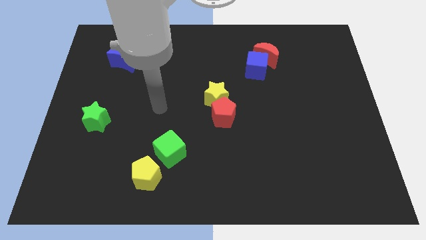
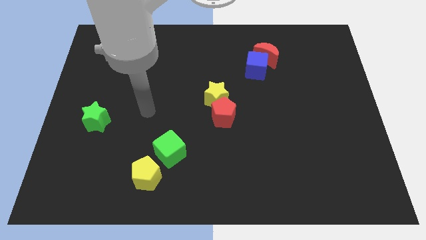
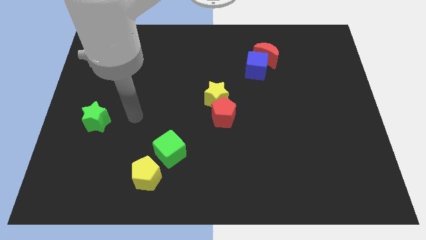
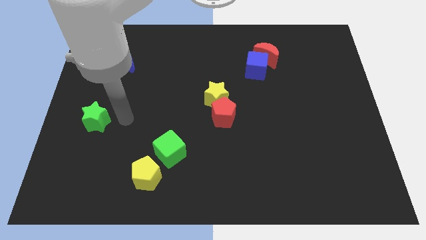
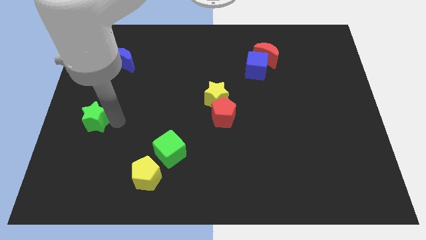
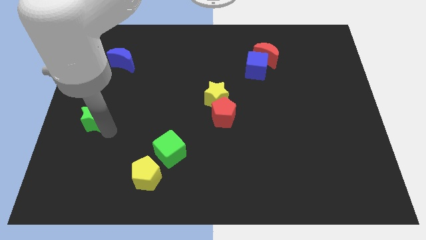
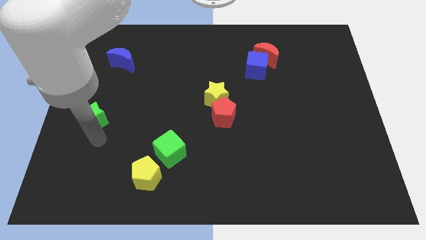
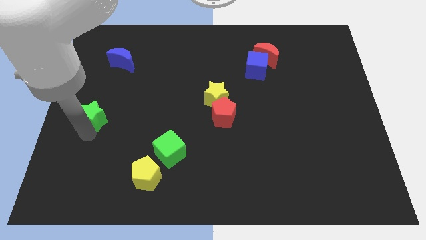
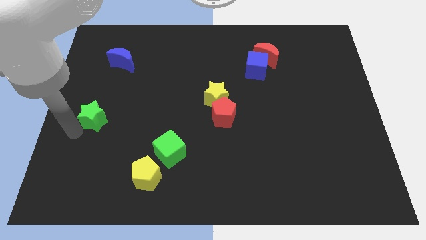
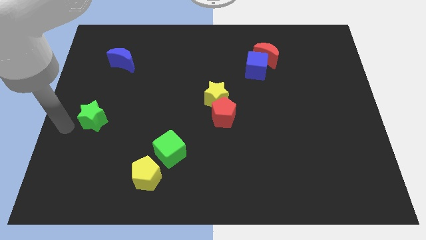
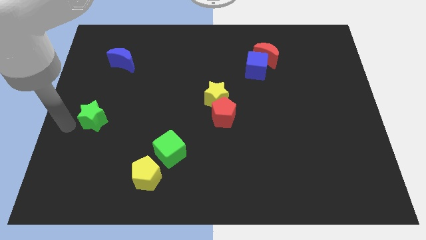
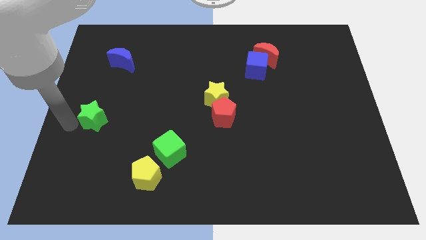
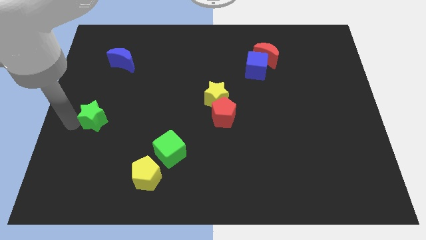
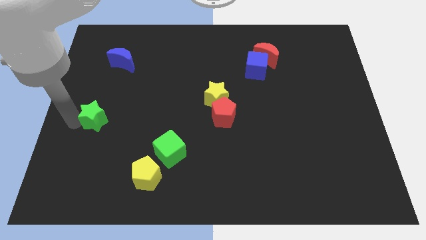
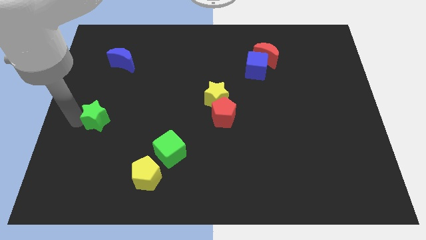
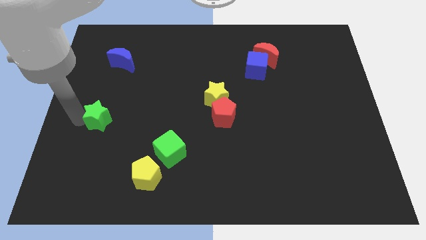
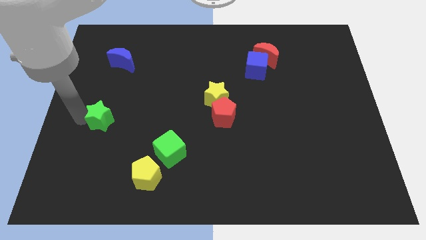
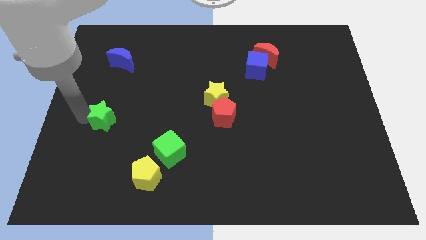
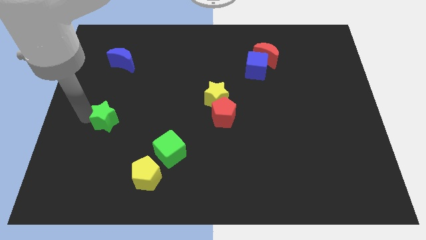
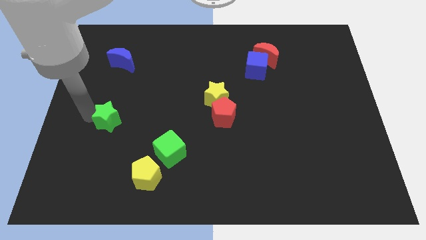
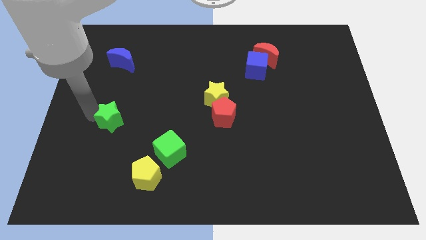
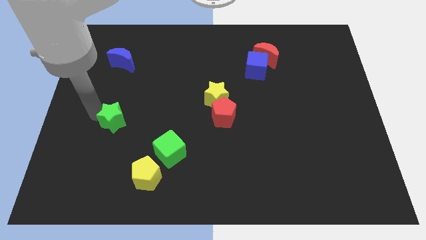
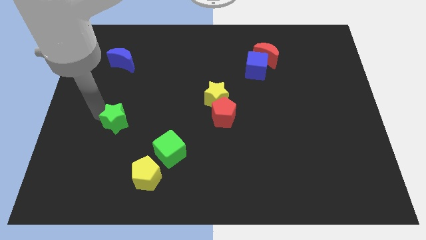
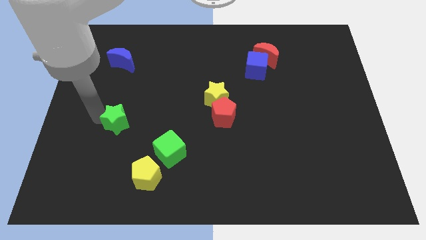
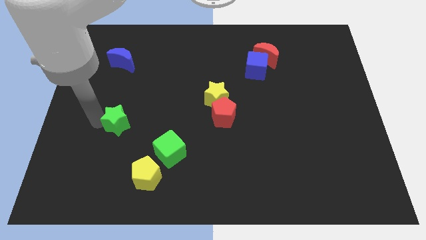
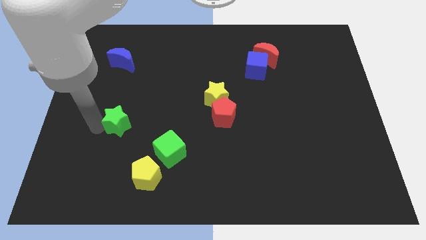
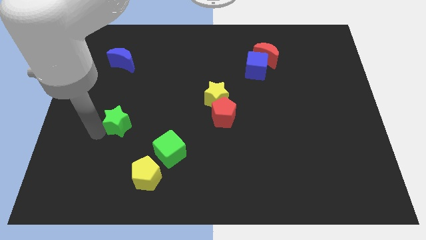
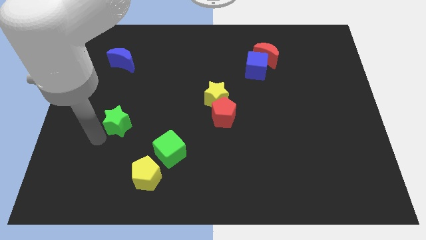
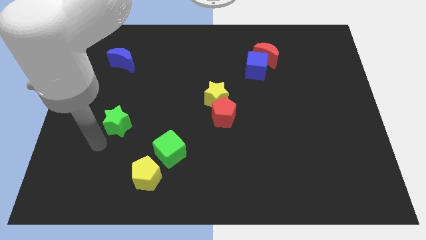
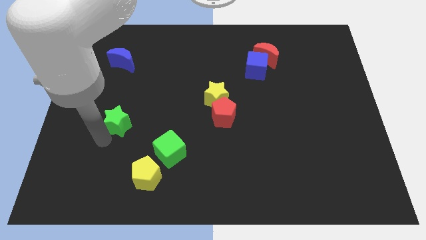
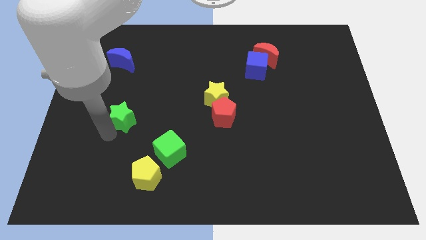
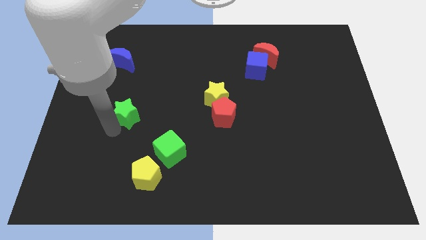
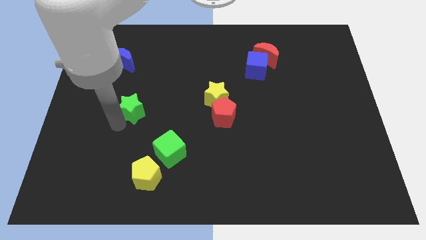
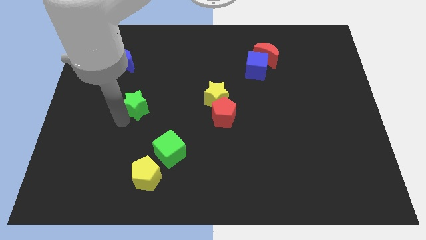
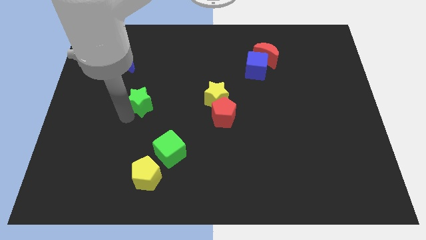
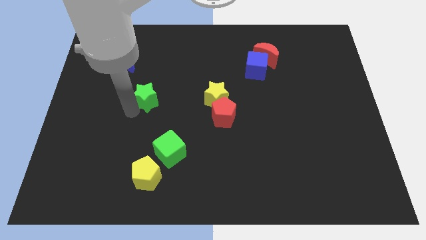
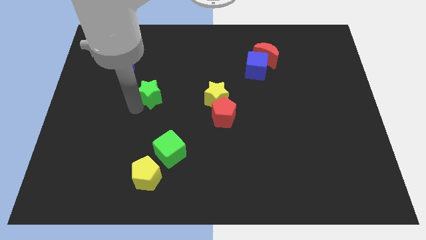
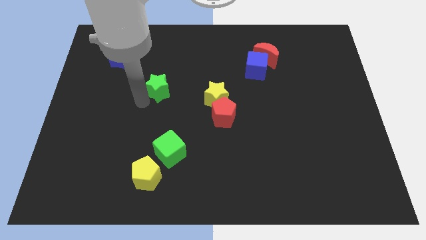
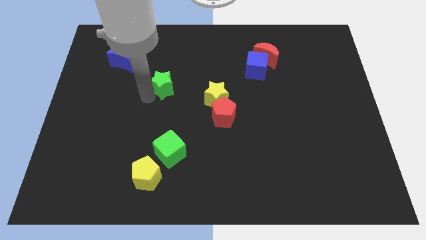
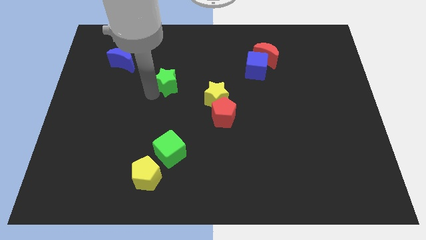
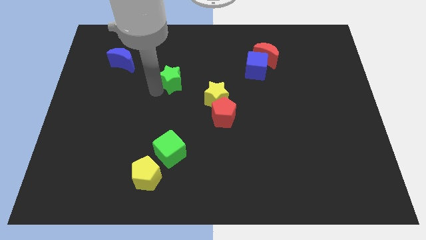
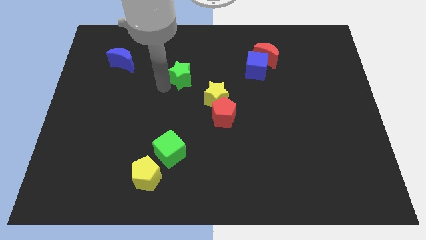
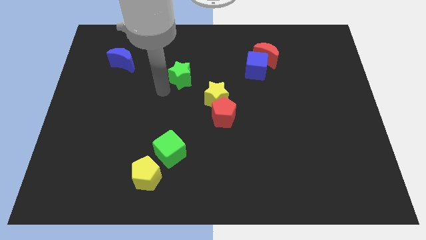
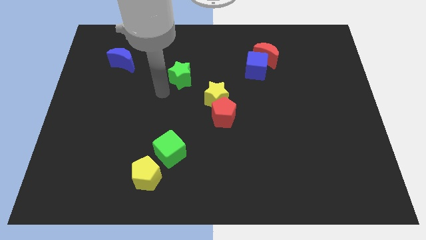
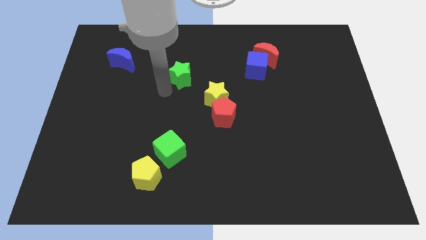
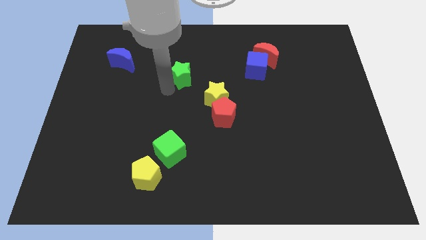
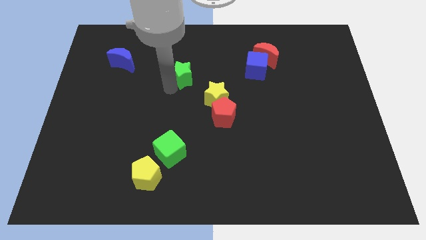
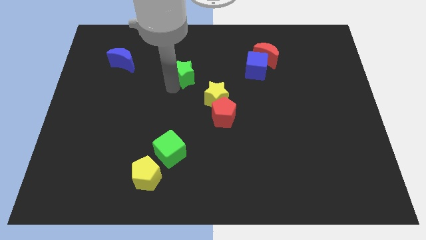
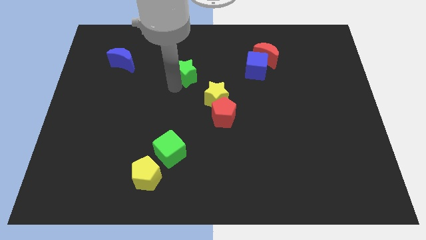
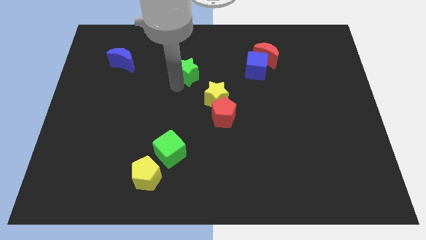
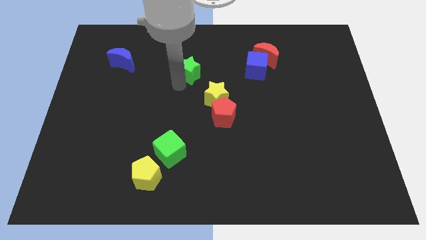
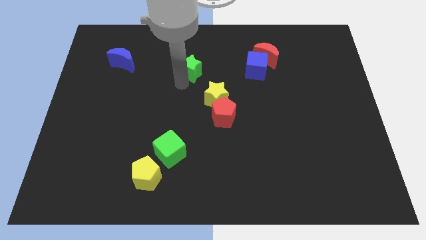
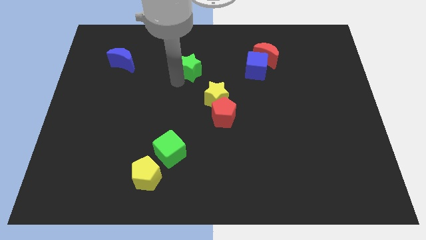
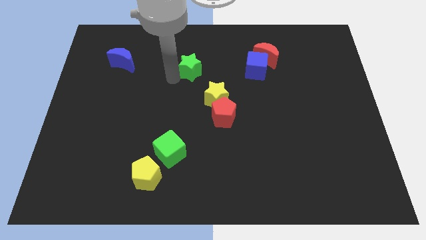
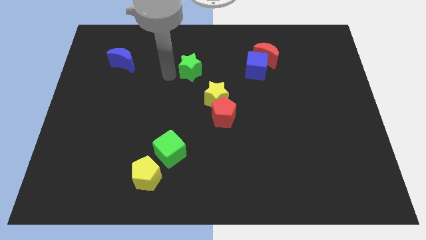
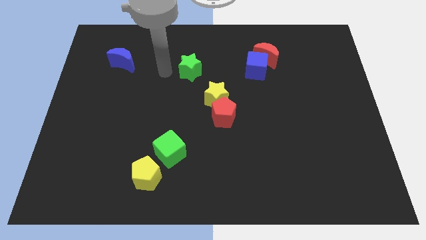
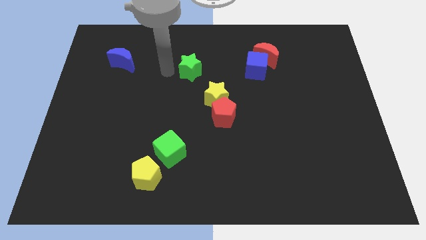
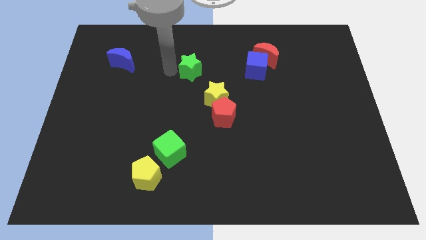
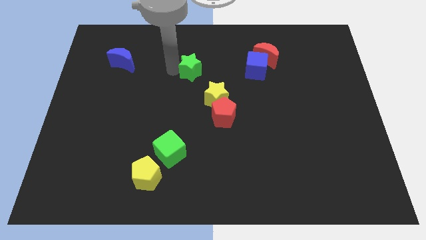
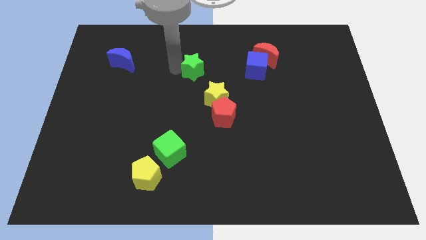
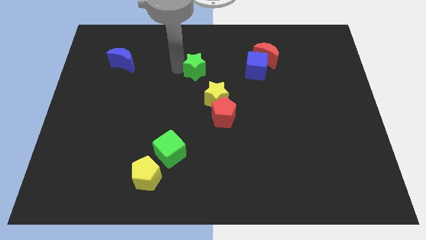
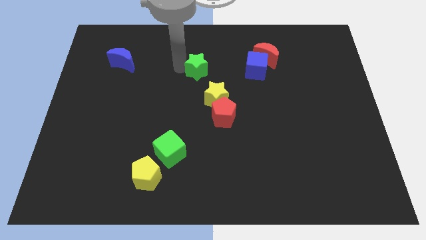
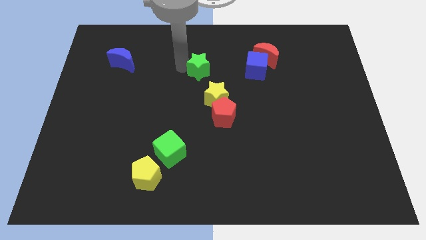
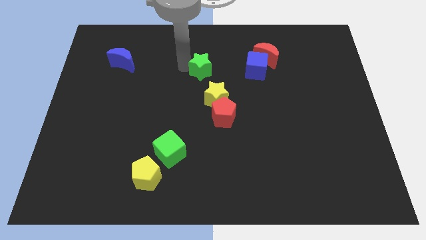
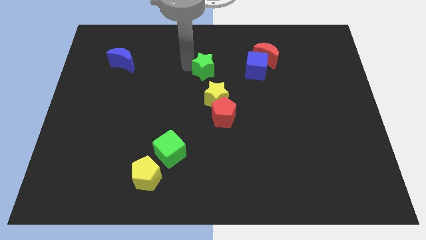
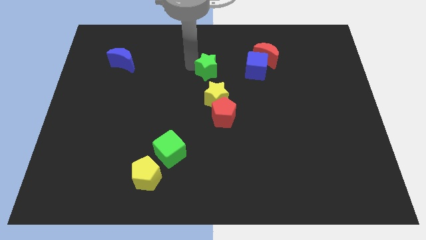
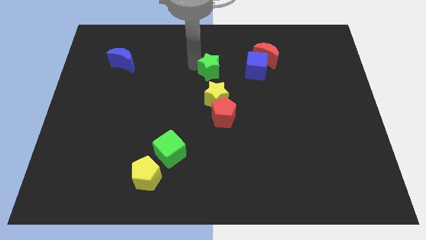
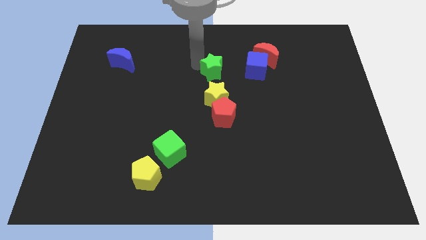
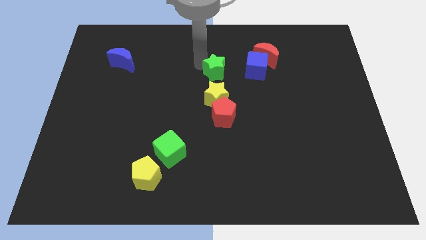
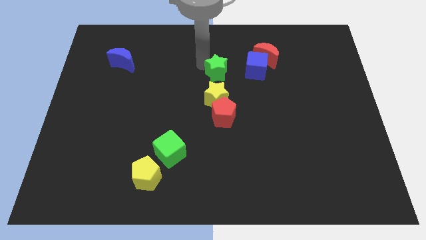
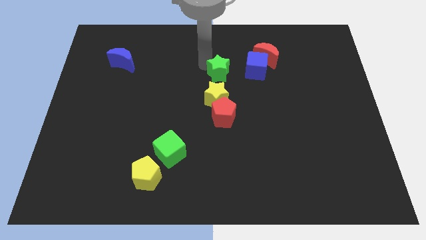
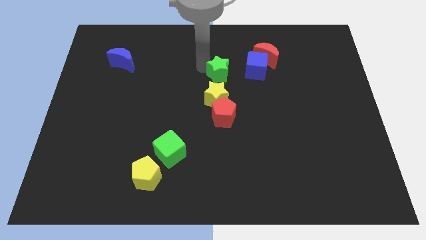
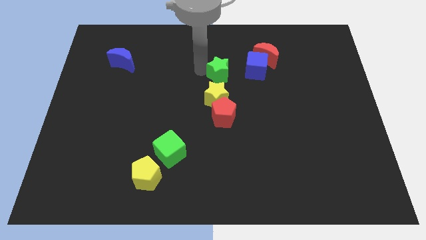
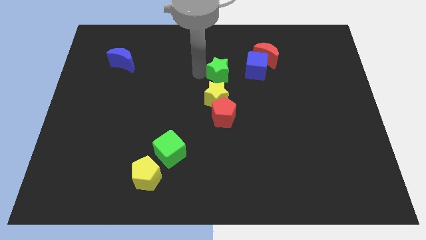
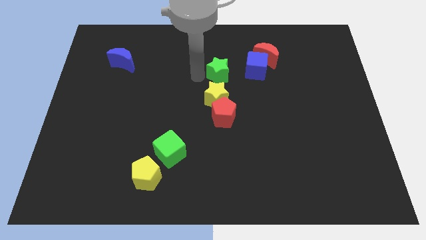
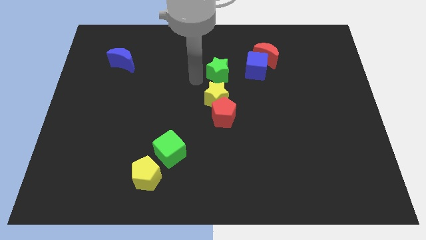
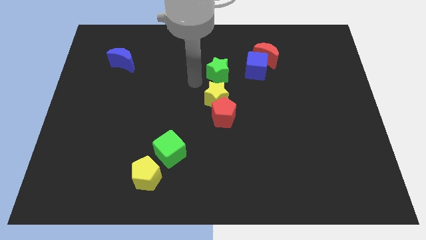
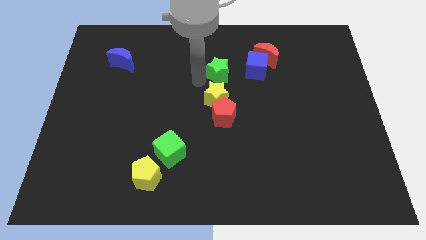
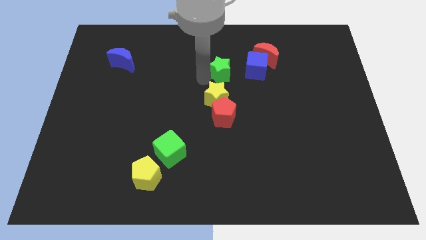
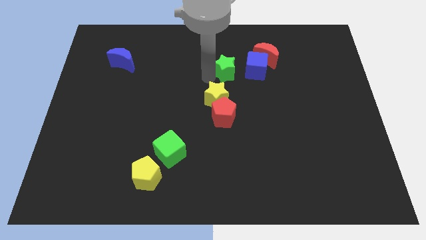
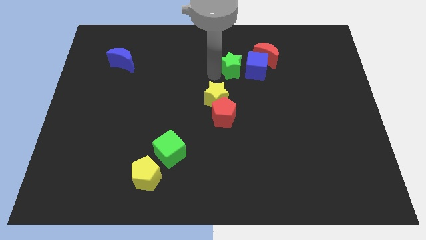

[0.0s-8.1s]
slide the green star diagonally down and to the left of the red moon
